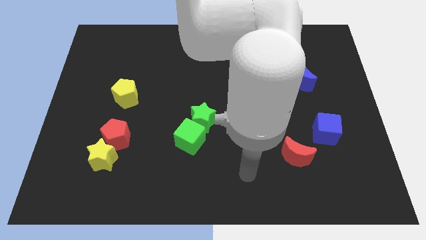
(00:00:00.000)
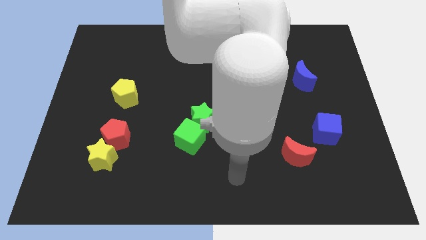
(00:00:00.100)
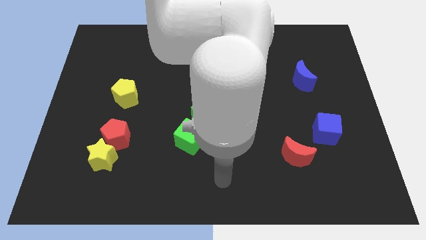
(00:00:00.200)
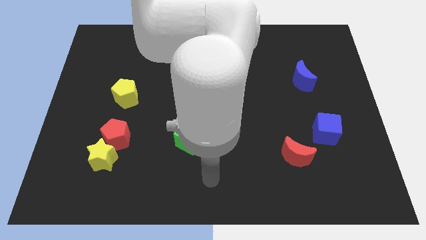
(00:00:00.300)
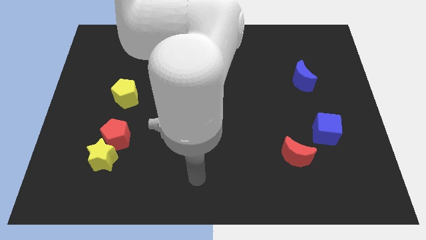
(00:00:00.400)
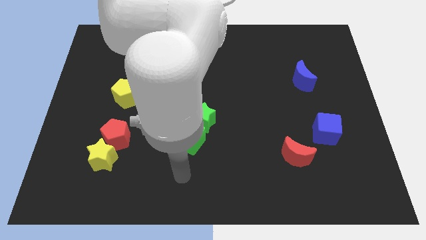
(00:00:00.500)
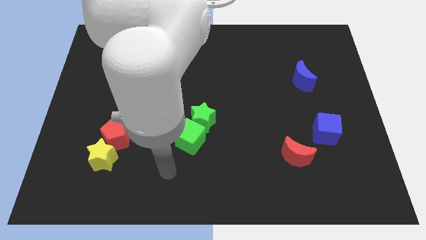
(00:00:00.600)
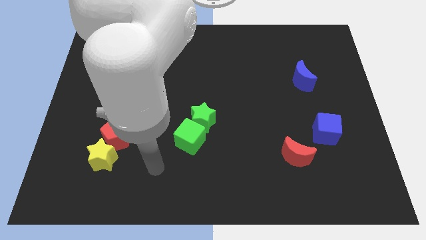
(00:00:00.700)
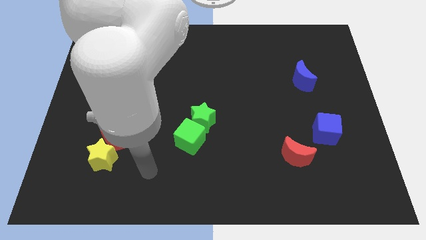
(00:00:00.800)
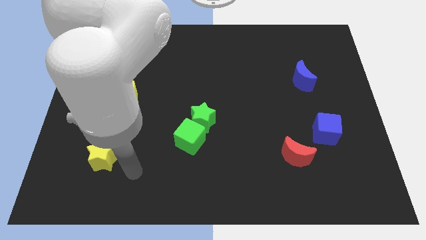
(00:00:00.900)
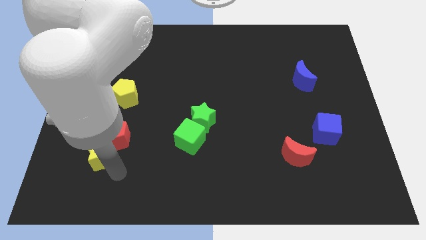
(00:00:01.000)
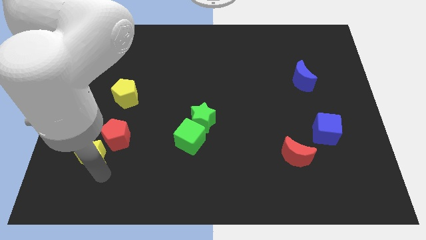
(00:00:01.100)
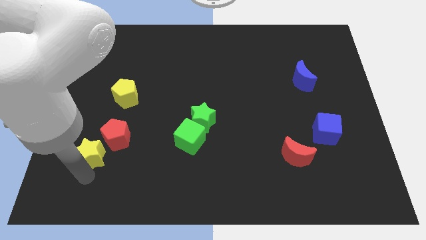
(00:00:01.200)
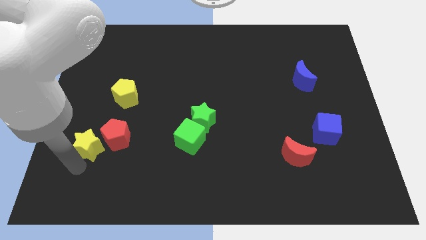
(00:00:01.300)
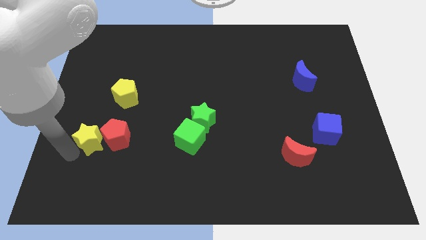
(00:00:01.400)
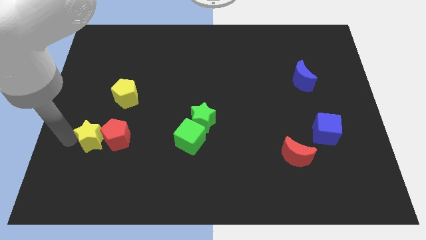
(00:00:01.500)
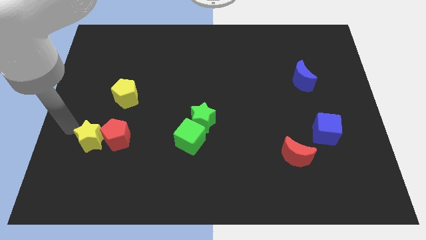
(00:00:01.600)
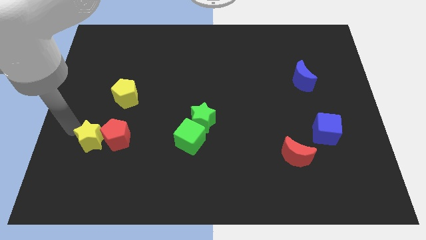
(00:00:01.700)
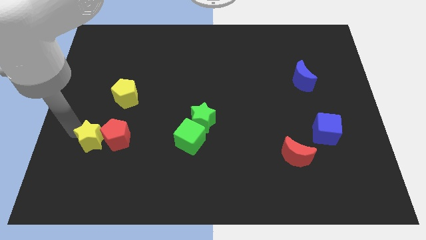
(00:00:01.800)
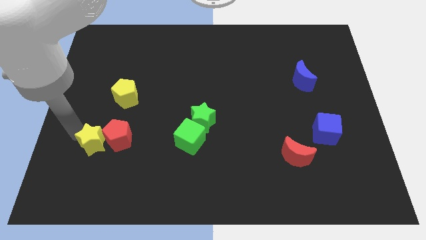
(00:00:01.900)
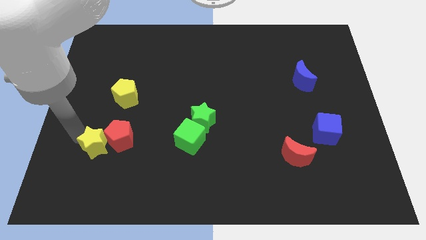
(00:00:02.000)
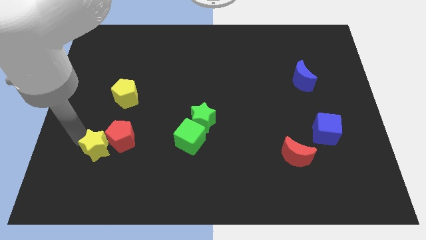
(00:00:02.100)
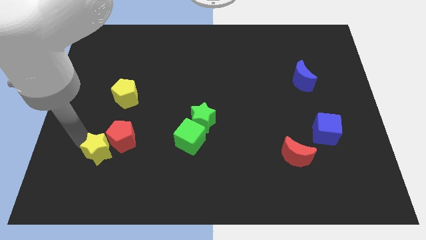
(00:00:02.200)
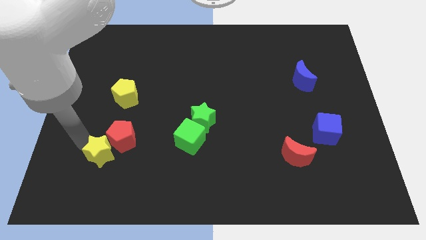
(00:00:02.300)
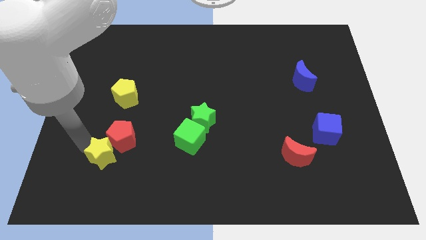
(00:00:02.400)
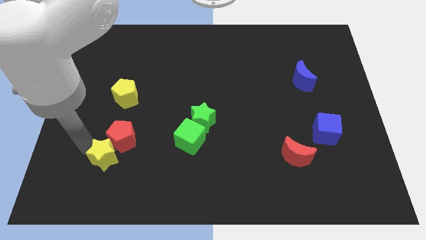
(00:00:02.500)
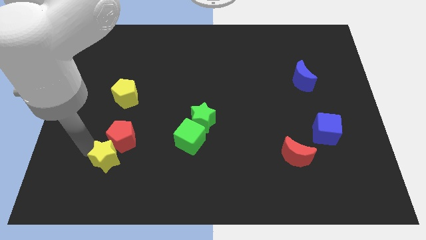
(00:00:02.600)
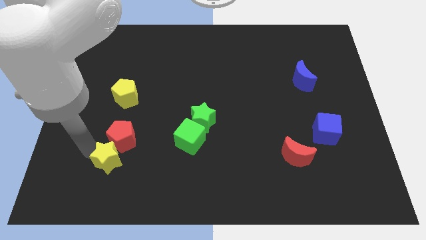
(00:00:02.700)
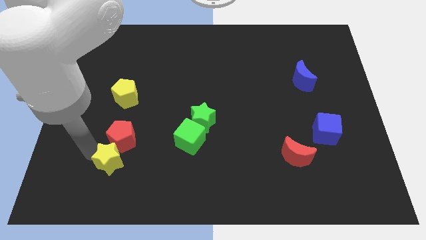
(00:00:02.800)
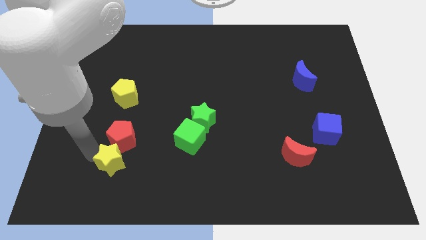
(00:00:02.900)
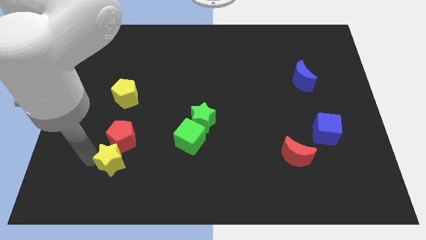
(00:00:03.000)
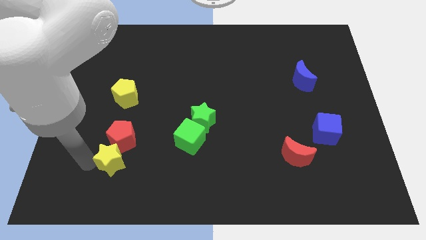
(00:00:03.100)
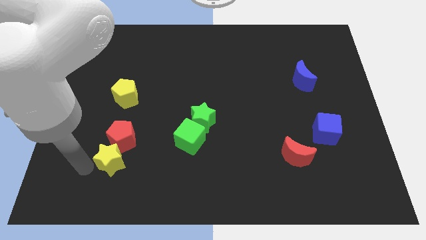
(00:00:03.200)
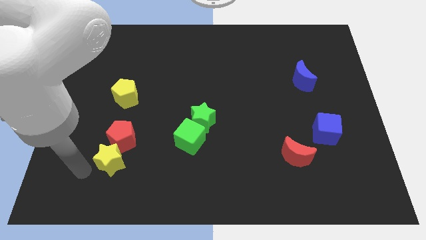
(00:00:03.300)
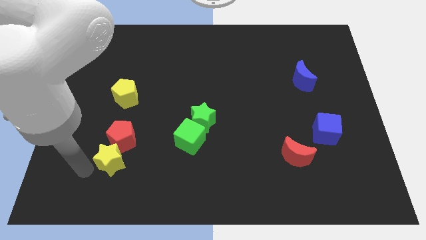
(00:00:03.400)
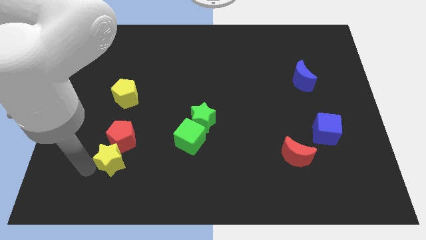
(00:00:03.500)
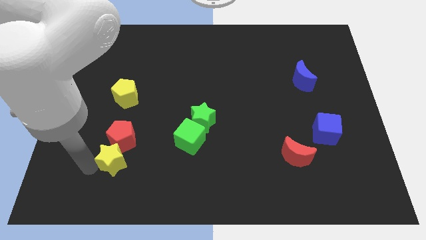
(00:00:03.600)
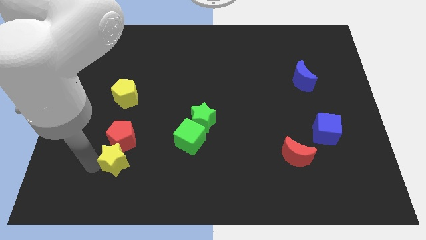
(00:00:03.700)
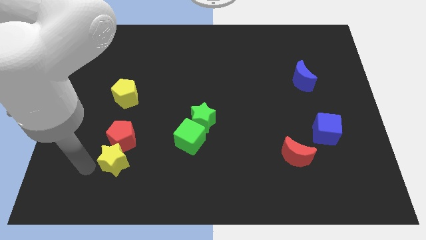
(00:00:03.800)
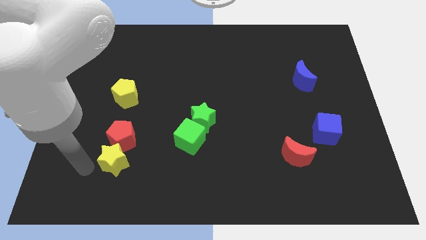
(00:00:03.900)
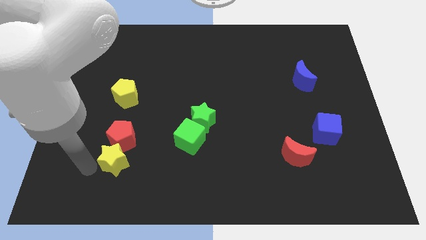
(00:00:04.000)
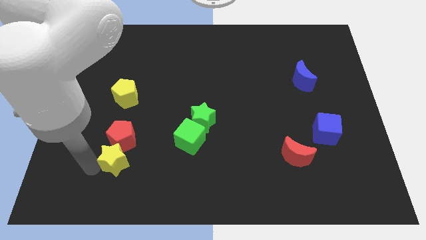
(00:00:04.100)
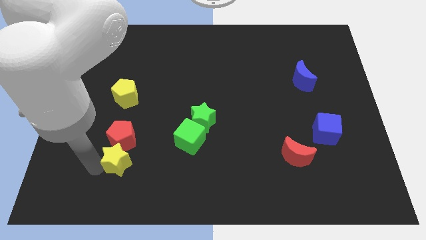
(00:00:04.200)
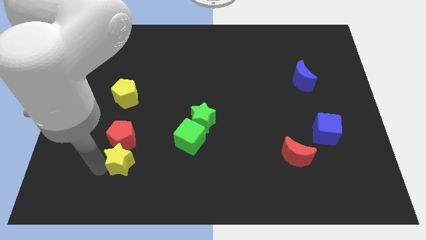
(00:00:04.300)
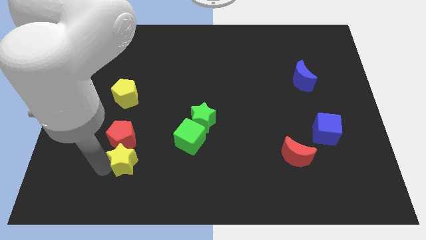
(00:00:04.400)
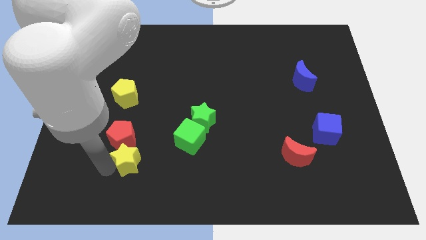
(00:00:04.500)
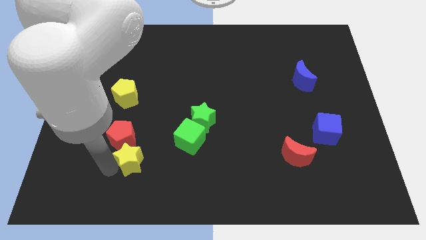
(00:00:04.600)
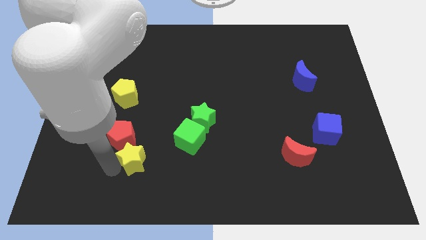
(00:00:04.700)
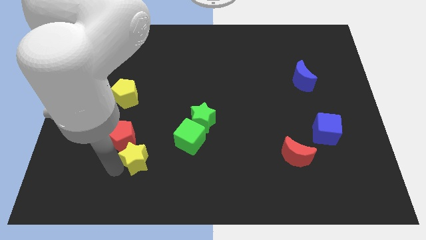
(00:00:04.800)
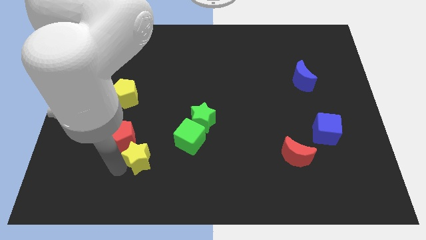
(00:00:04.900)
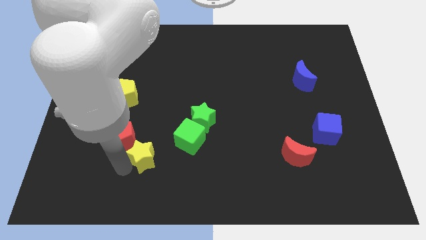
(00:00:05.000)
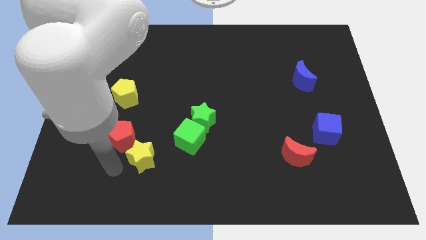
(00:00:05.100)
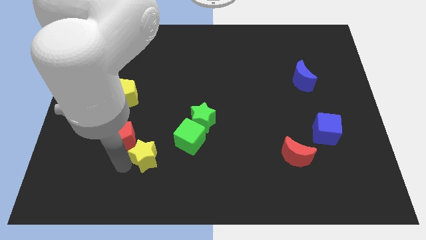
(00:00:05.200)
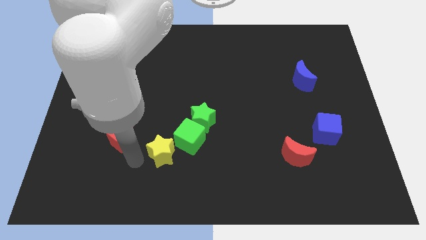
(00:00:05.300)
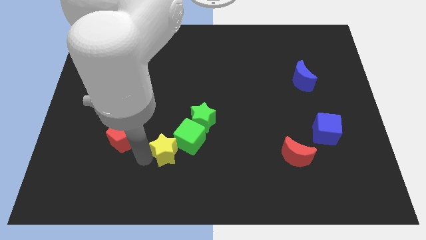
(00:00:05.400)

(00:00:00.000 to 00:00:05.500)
push the yellow star close to the green cube

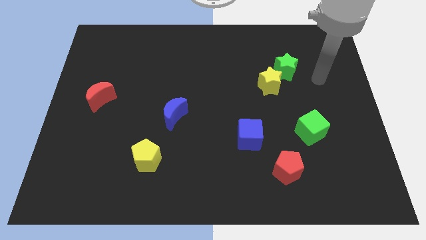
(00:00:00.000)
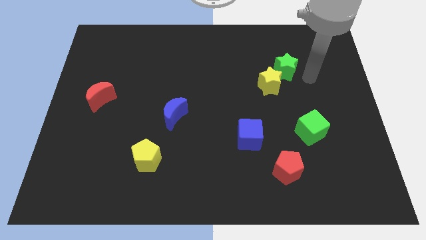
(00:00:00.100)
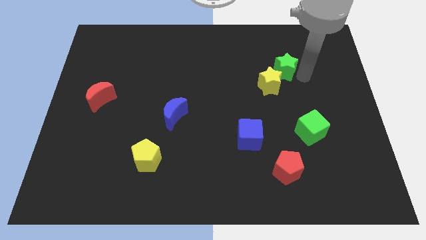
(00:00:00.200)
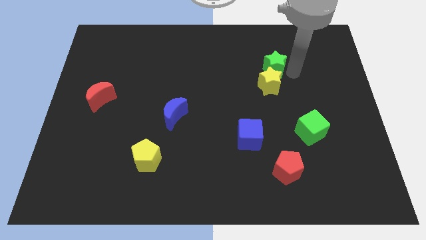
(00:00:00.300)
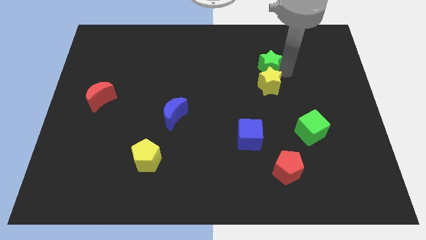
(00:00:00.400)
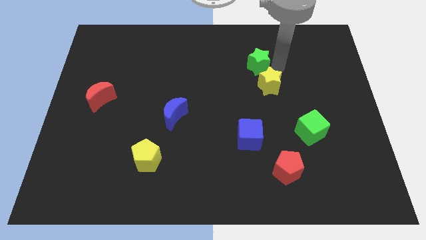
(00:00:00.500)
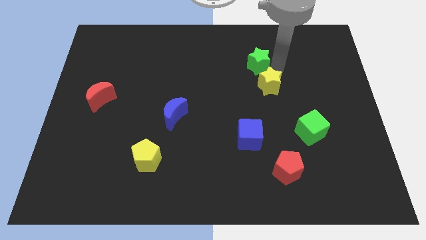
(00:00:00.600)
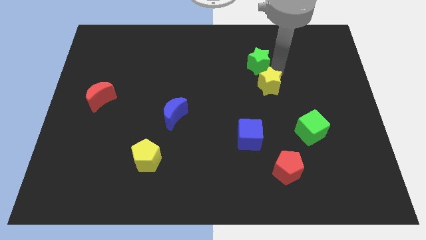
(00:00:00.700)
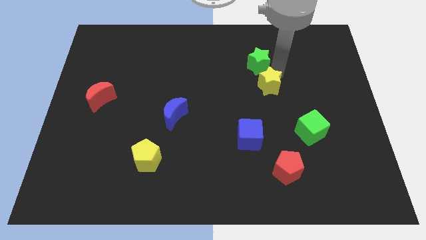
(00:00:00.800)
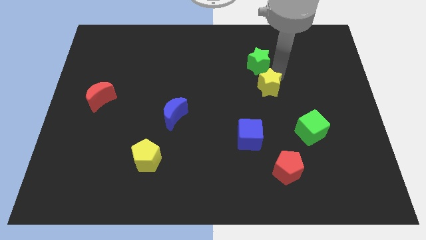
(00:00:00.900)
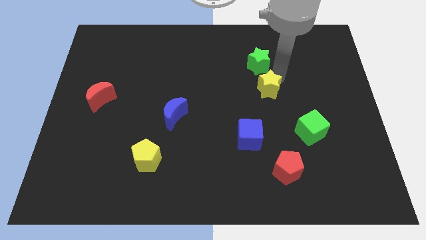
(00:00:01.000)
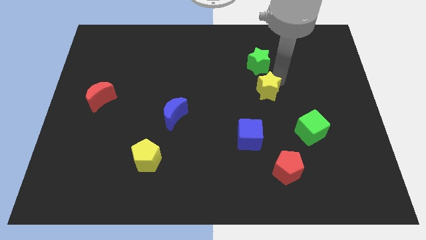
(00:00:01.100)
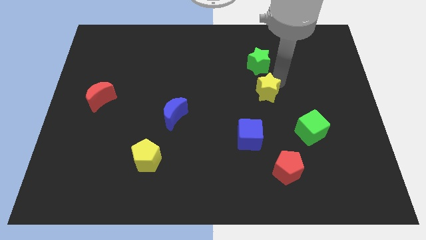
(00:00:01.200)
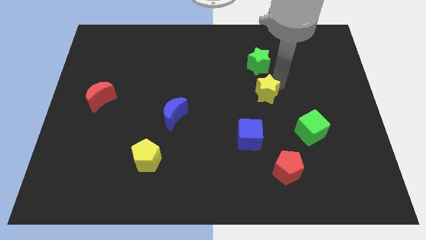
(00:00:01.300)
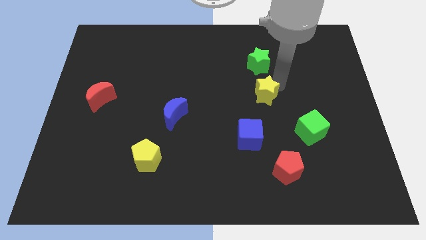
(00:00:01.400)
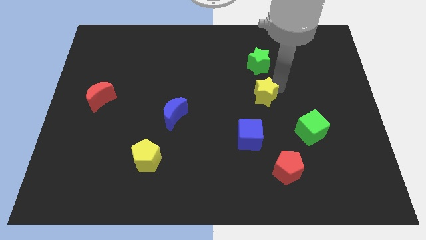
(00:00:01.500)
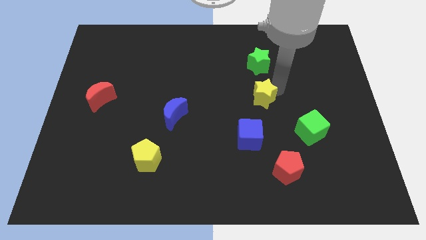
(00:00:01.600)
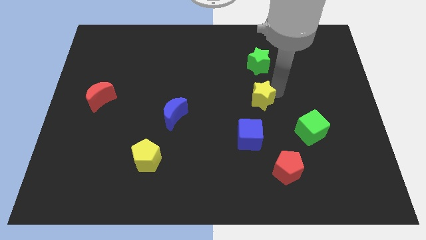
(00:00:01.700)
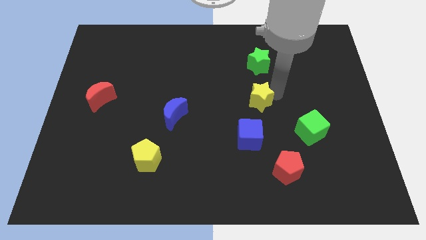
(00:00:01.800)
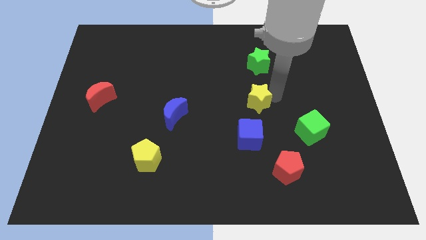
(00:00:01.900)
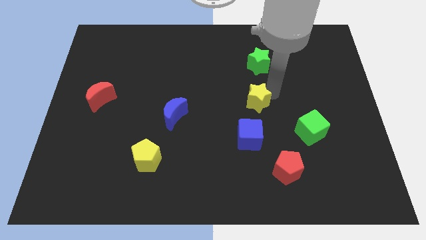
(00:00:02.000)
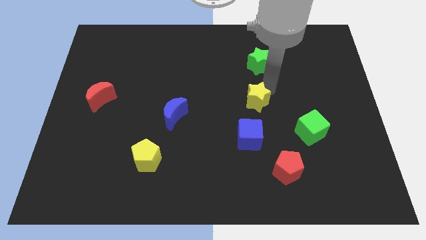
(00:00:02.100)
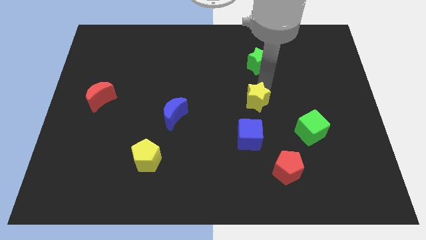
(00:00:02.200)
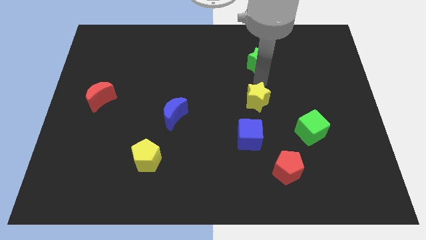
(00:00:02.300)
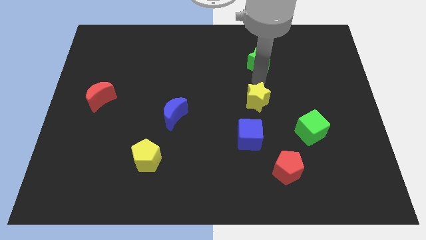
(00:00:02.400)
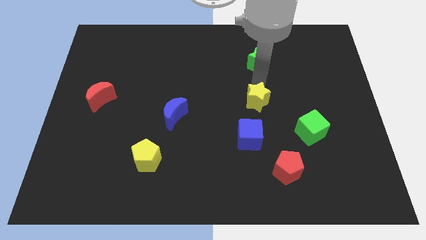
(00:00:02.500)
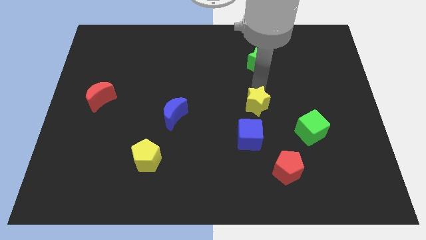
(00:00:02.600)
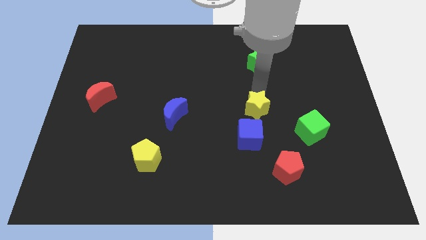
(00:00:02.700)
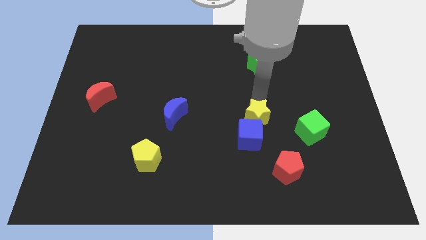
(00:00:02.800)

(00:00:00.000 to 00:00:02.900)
push the yellow star to the blue cube
